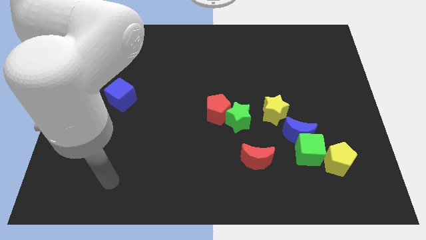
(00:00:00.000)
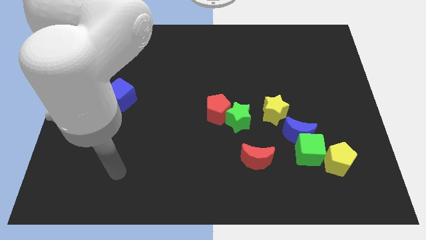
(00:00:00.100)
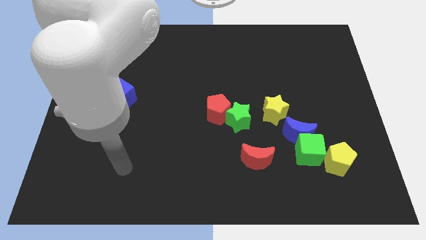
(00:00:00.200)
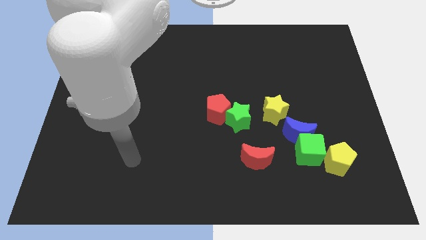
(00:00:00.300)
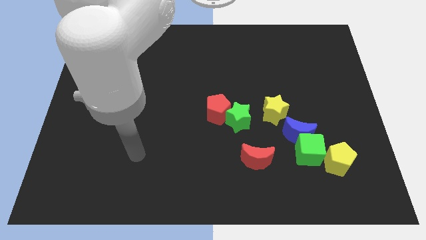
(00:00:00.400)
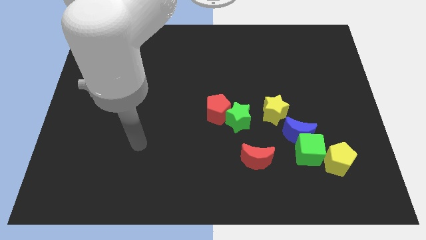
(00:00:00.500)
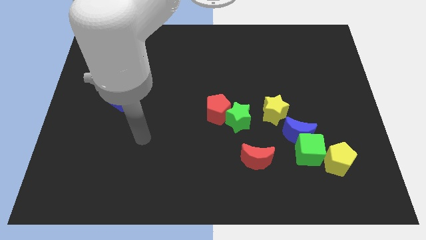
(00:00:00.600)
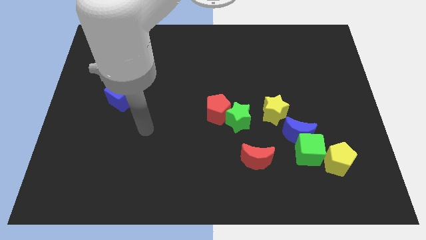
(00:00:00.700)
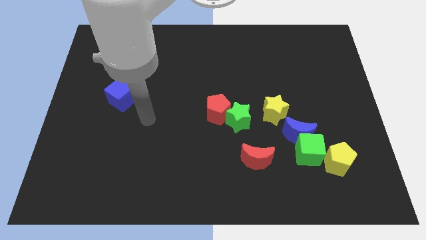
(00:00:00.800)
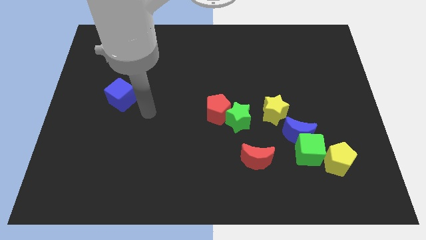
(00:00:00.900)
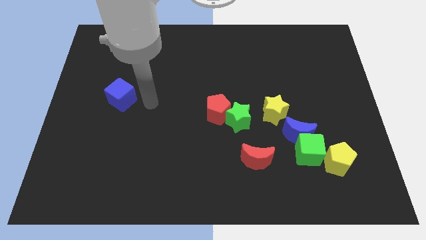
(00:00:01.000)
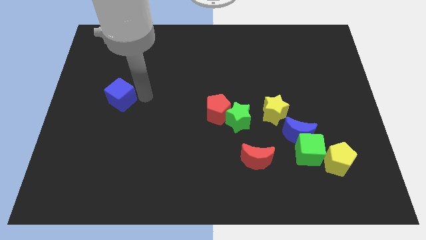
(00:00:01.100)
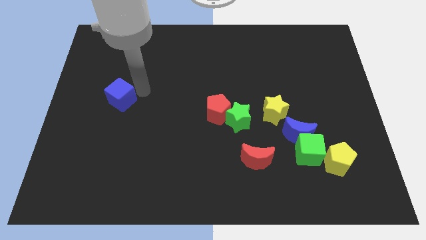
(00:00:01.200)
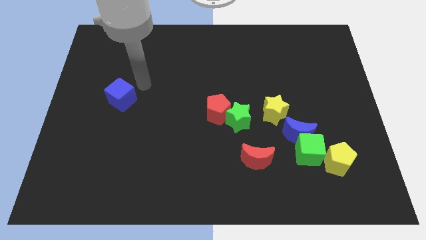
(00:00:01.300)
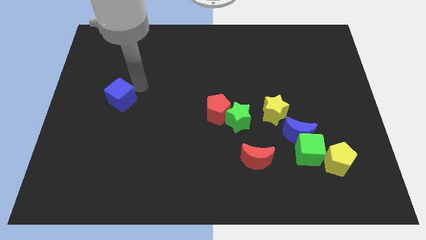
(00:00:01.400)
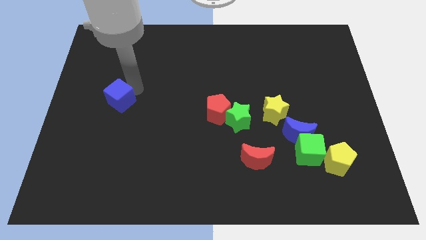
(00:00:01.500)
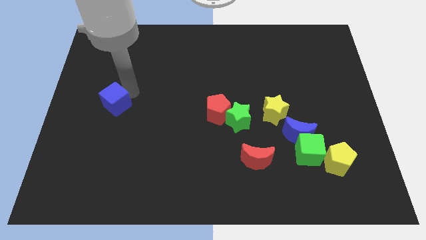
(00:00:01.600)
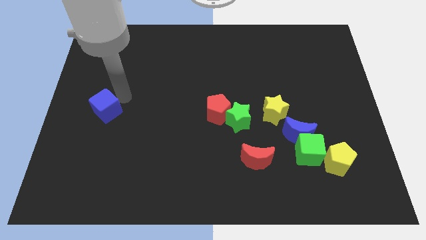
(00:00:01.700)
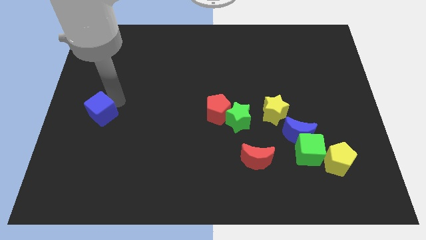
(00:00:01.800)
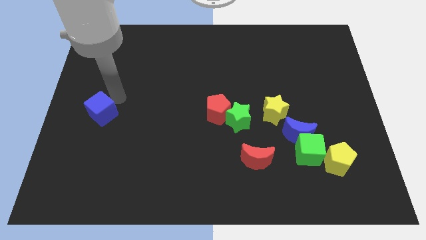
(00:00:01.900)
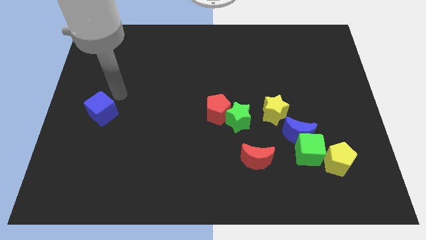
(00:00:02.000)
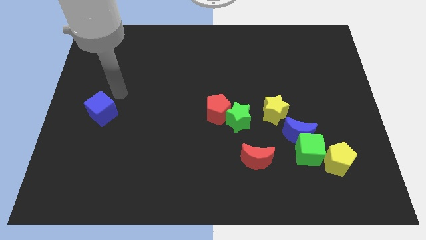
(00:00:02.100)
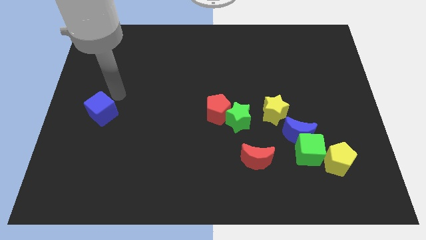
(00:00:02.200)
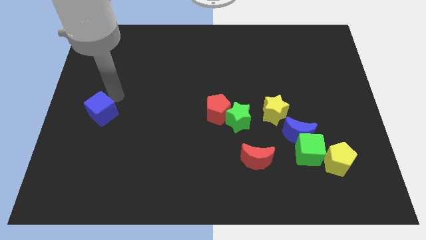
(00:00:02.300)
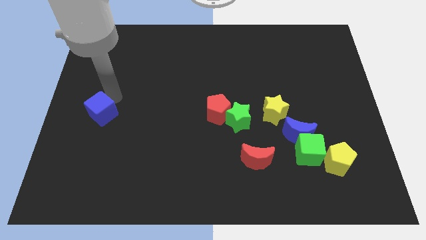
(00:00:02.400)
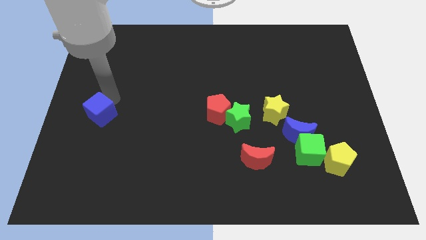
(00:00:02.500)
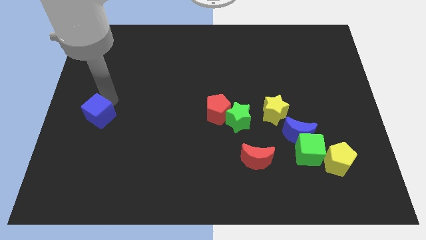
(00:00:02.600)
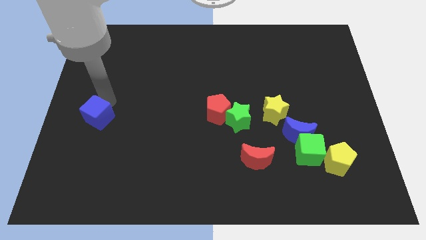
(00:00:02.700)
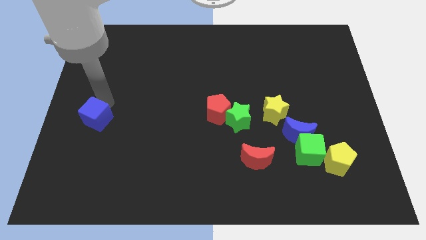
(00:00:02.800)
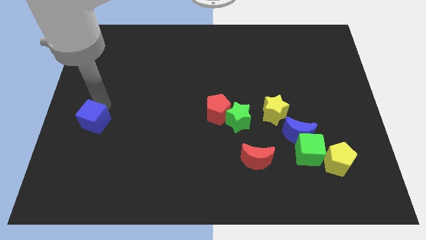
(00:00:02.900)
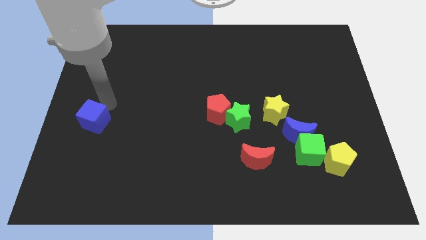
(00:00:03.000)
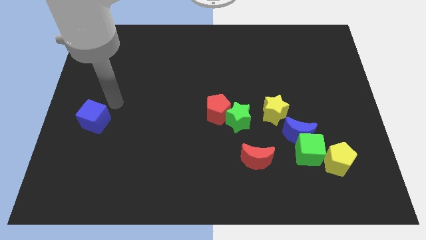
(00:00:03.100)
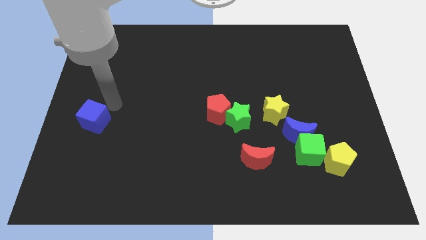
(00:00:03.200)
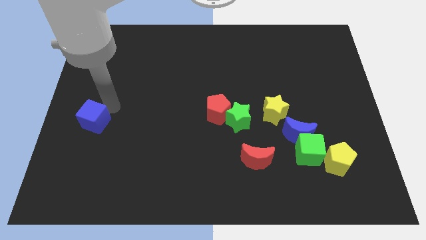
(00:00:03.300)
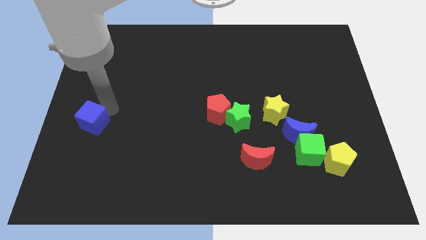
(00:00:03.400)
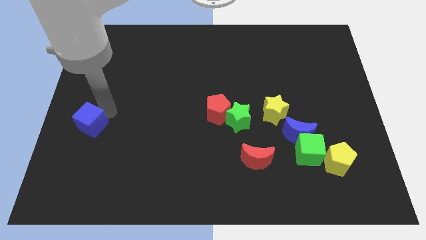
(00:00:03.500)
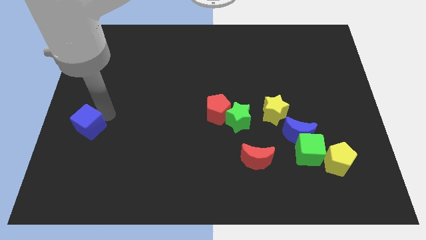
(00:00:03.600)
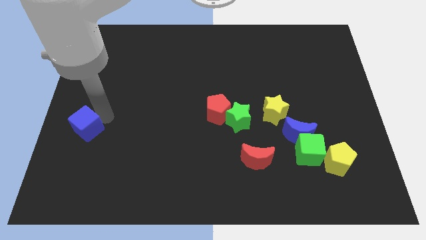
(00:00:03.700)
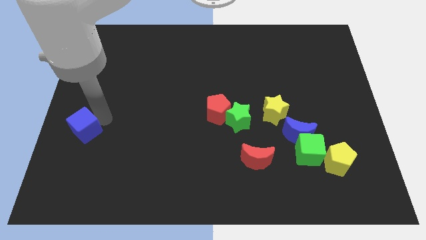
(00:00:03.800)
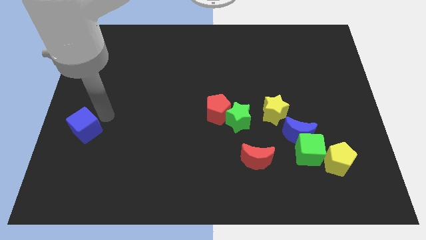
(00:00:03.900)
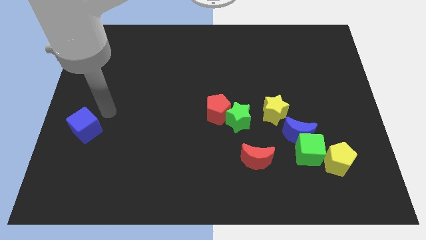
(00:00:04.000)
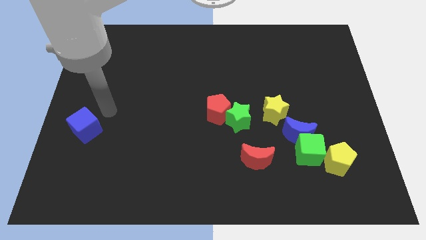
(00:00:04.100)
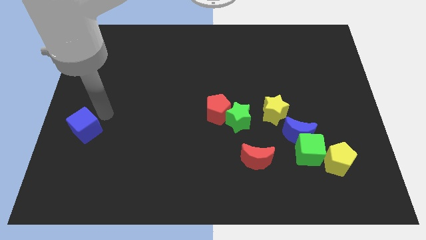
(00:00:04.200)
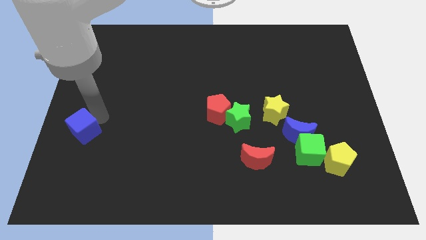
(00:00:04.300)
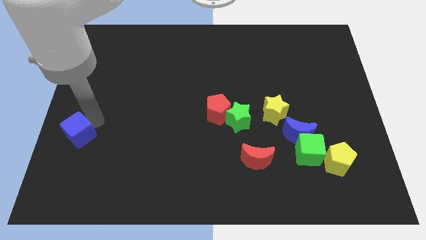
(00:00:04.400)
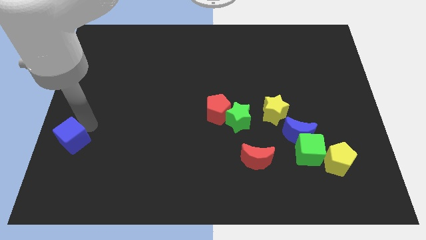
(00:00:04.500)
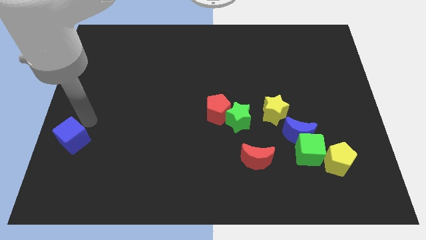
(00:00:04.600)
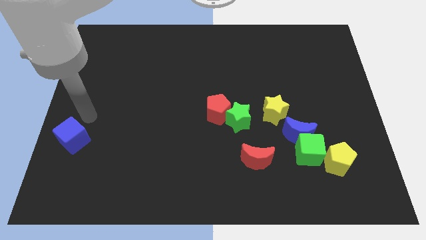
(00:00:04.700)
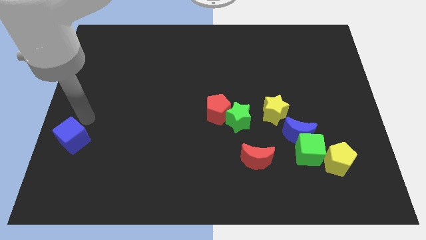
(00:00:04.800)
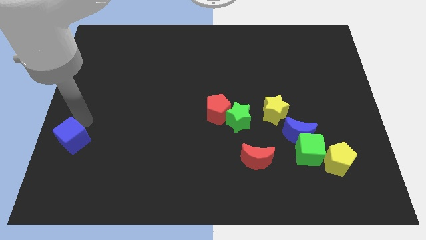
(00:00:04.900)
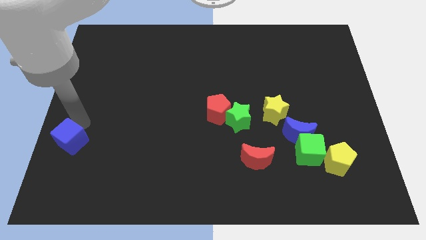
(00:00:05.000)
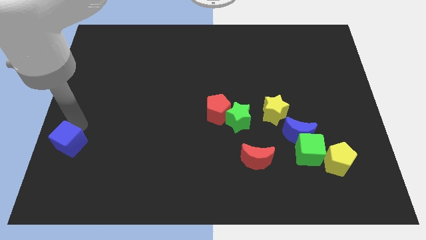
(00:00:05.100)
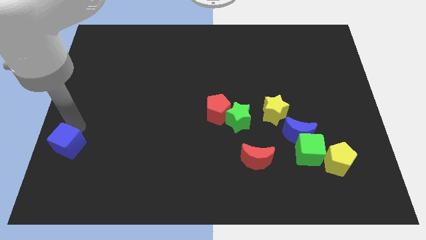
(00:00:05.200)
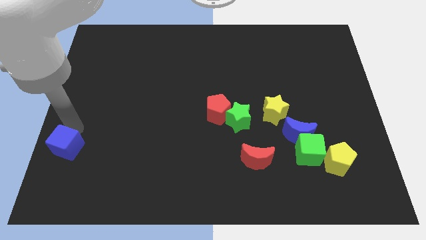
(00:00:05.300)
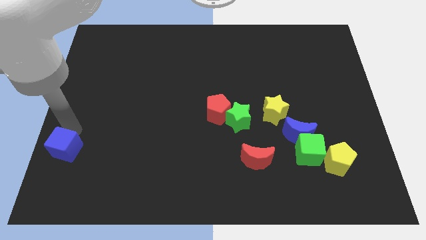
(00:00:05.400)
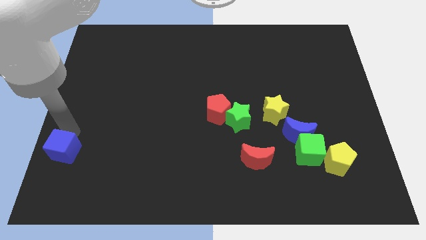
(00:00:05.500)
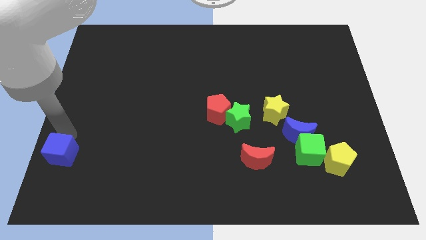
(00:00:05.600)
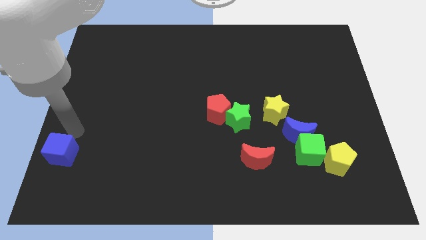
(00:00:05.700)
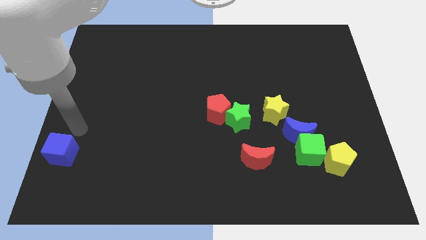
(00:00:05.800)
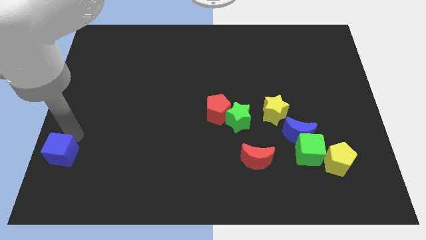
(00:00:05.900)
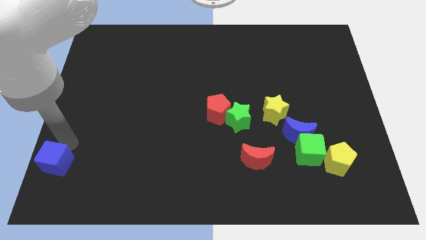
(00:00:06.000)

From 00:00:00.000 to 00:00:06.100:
slide the blue cube to the bottom left corner
